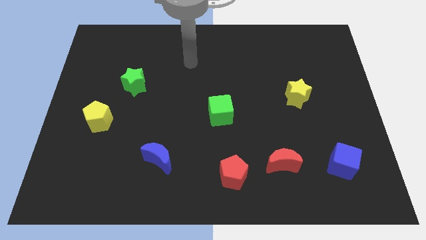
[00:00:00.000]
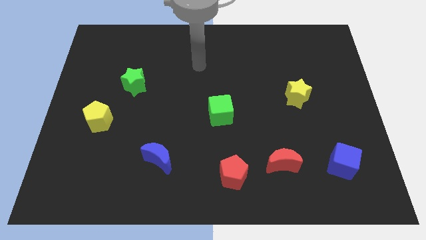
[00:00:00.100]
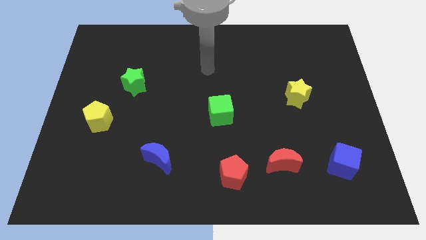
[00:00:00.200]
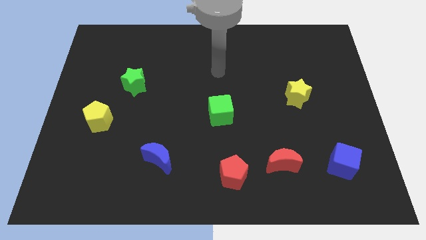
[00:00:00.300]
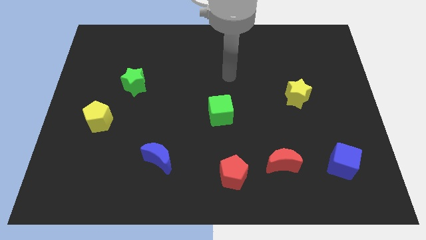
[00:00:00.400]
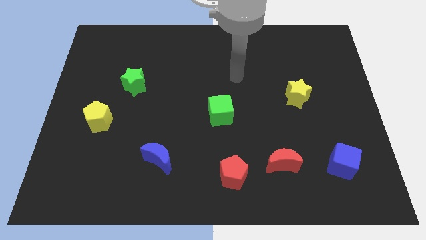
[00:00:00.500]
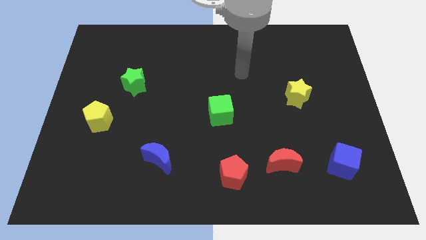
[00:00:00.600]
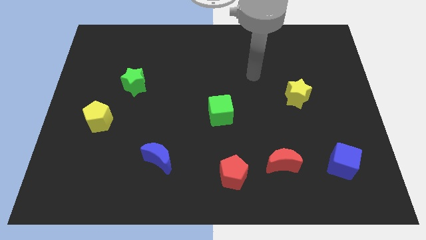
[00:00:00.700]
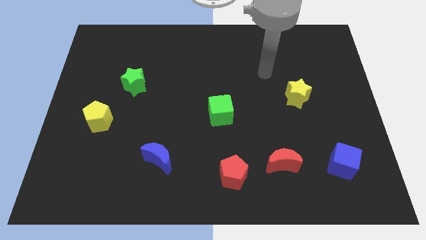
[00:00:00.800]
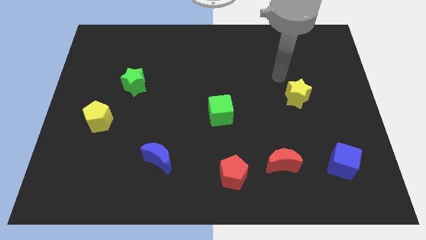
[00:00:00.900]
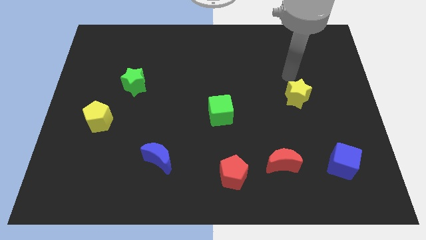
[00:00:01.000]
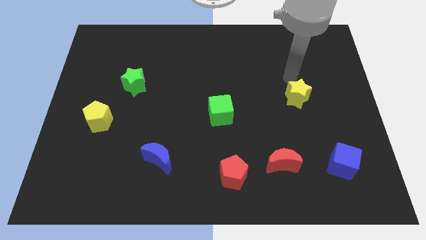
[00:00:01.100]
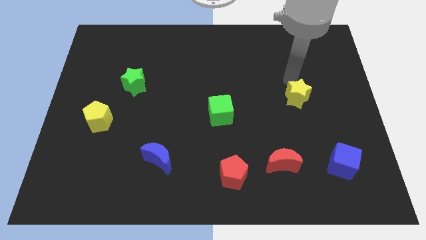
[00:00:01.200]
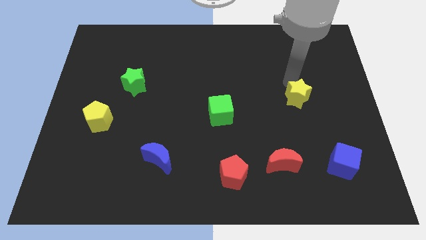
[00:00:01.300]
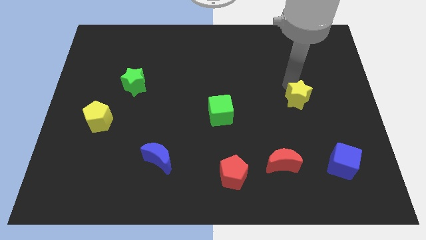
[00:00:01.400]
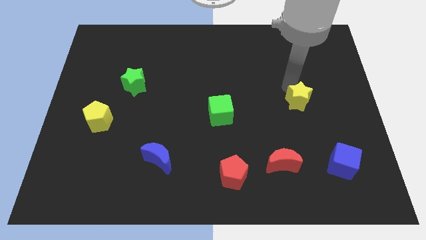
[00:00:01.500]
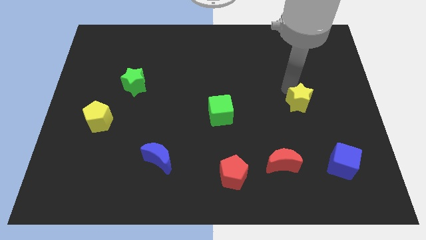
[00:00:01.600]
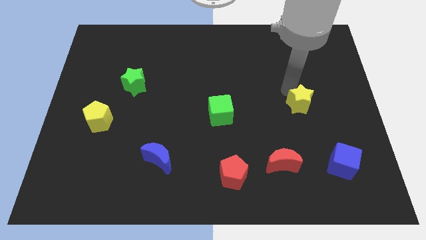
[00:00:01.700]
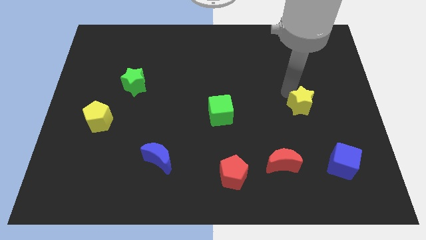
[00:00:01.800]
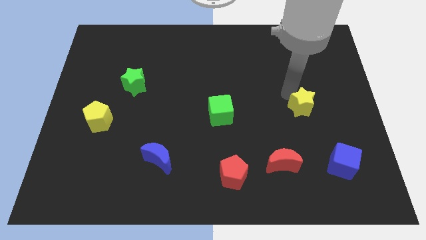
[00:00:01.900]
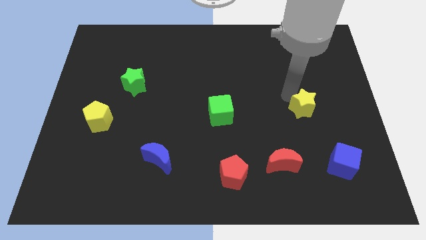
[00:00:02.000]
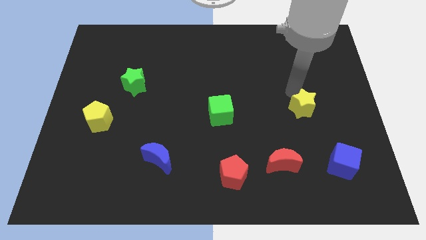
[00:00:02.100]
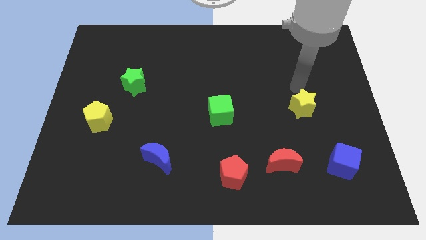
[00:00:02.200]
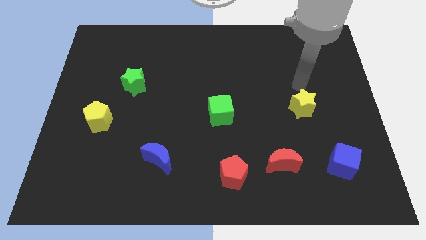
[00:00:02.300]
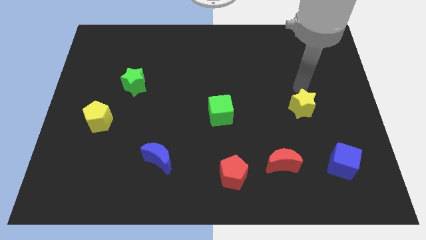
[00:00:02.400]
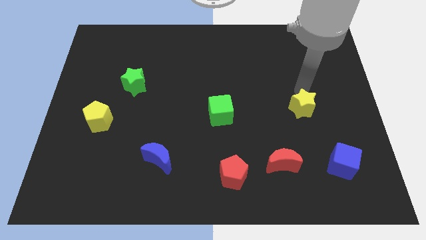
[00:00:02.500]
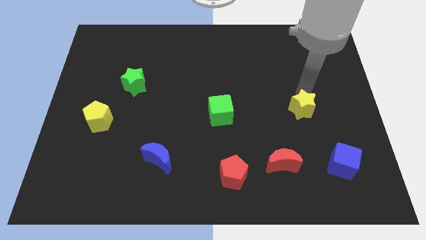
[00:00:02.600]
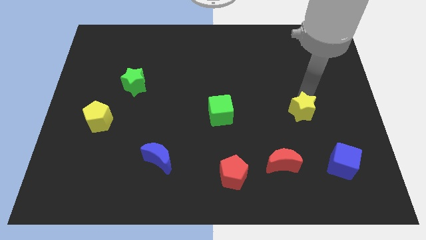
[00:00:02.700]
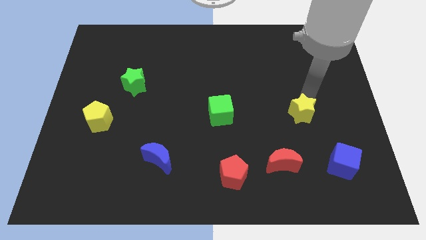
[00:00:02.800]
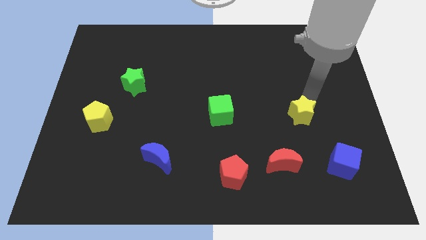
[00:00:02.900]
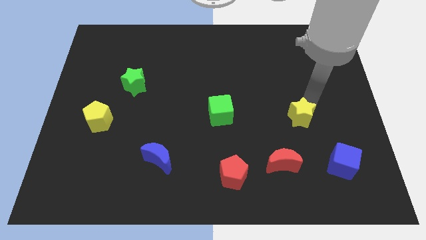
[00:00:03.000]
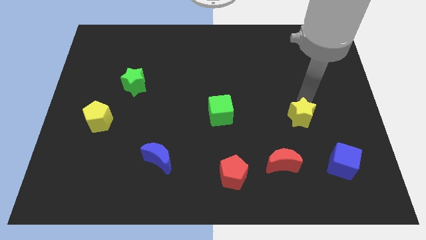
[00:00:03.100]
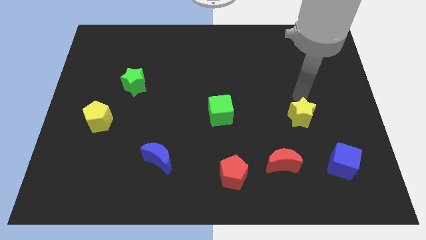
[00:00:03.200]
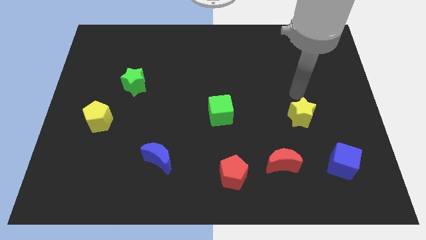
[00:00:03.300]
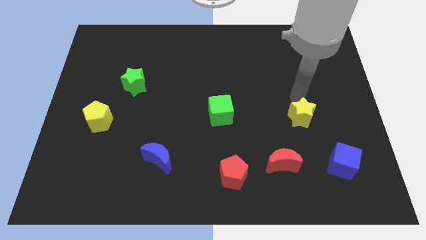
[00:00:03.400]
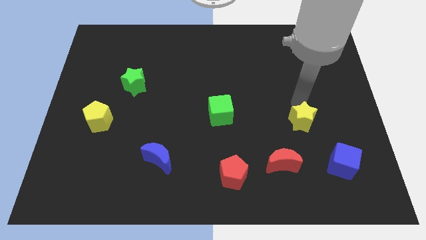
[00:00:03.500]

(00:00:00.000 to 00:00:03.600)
push the yellow star a little bit down

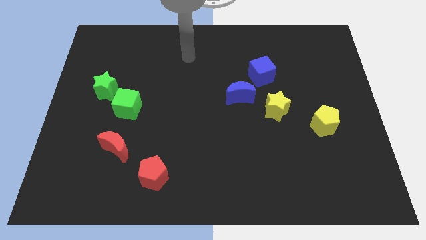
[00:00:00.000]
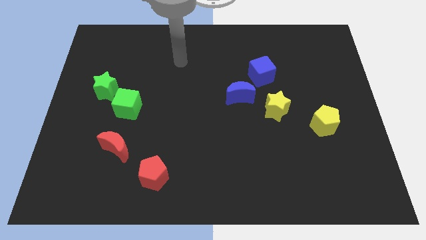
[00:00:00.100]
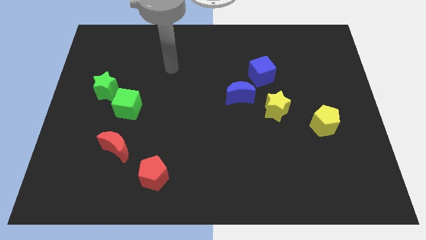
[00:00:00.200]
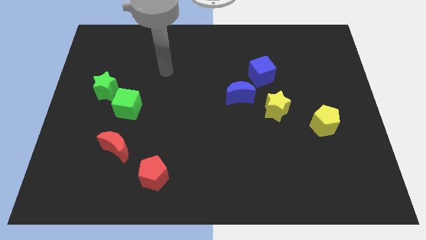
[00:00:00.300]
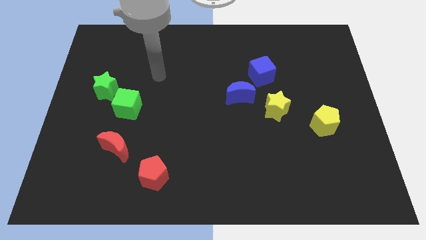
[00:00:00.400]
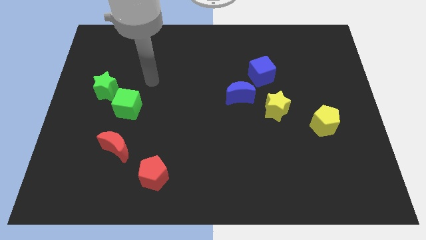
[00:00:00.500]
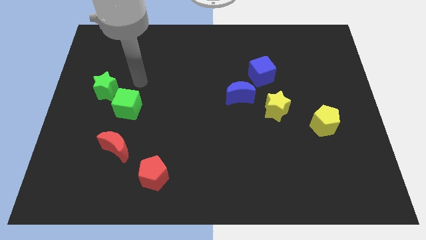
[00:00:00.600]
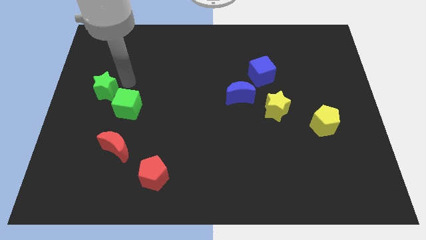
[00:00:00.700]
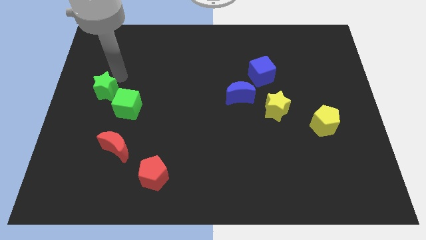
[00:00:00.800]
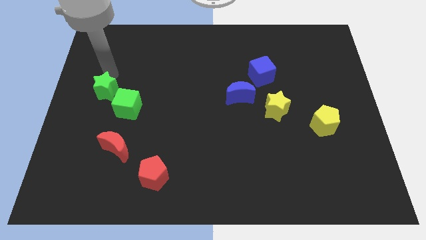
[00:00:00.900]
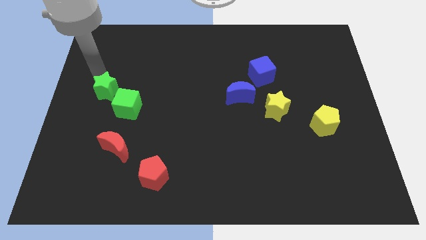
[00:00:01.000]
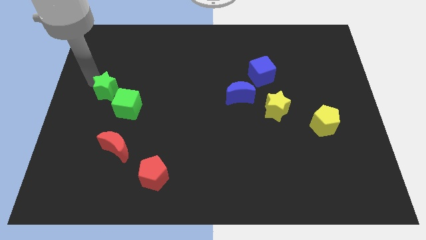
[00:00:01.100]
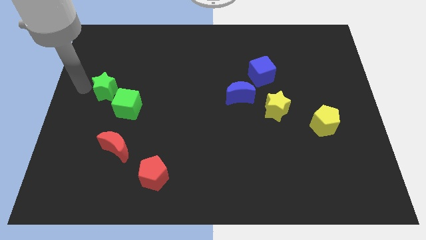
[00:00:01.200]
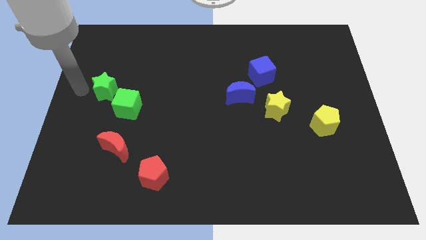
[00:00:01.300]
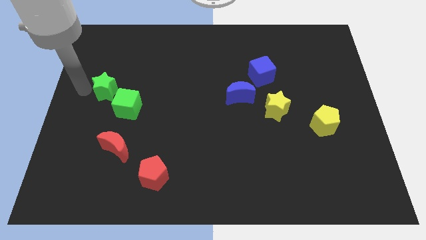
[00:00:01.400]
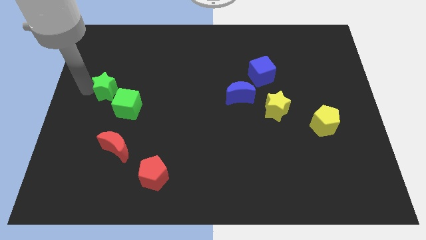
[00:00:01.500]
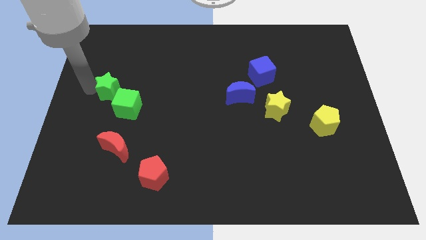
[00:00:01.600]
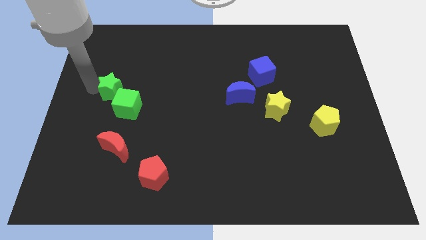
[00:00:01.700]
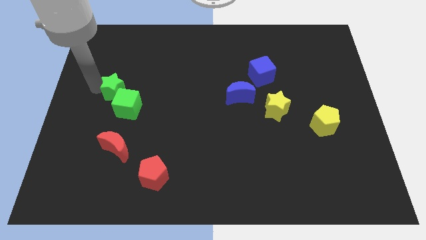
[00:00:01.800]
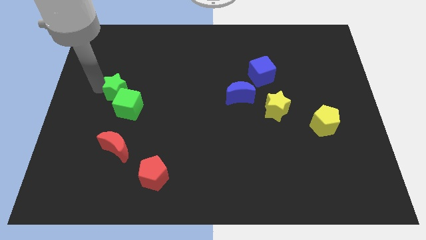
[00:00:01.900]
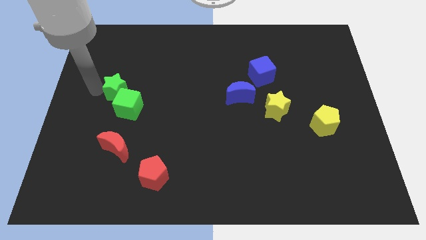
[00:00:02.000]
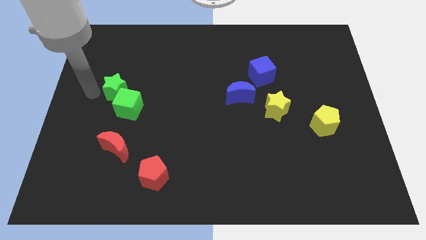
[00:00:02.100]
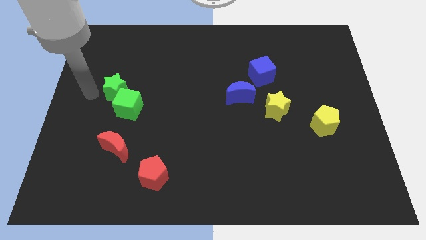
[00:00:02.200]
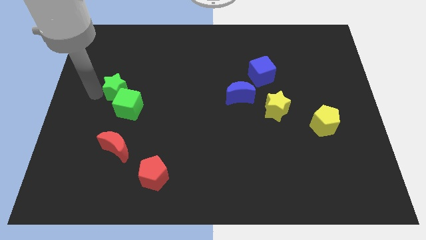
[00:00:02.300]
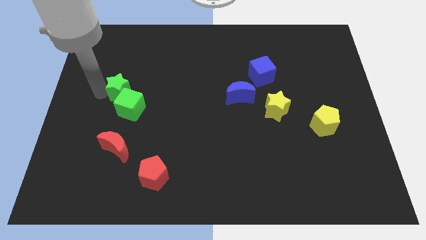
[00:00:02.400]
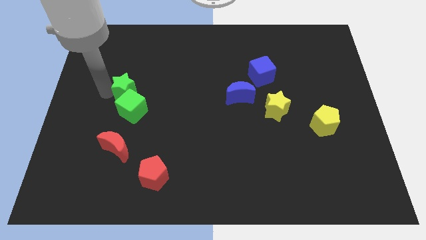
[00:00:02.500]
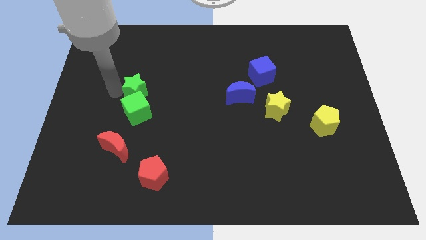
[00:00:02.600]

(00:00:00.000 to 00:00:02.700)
move the green star slightly right

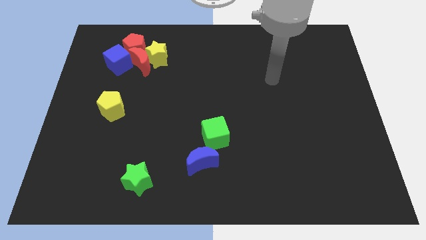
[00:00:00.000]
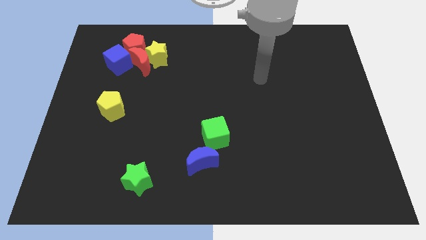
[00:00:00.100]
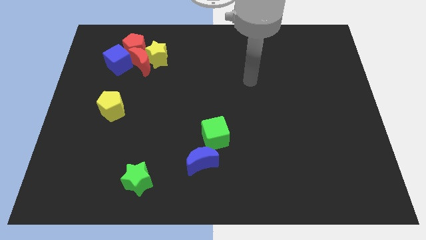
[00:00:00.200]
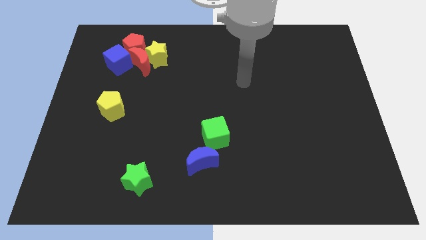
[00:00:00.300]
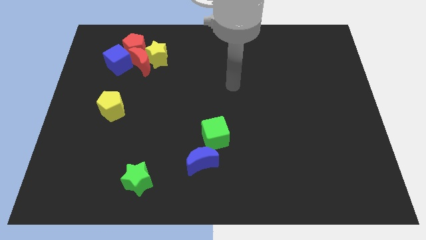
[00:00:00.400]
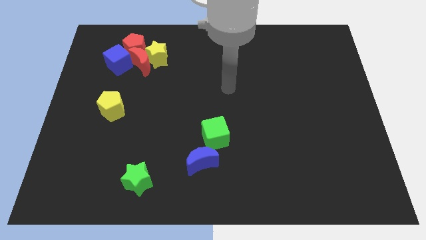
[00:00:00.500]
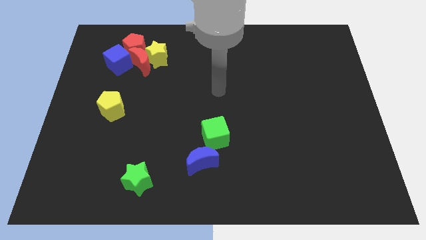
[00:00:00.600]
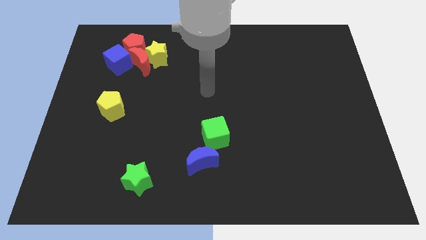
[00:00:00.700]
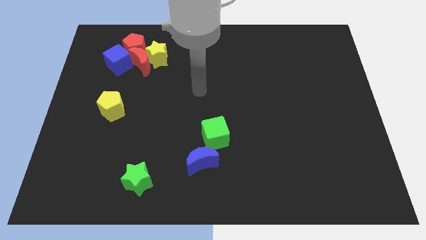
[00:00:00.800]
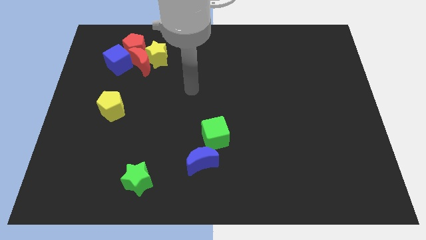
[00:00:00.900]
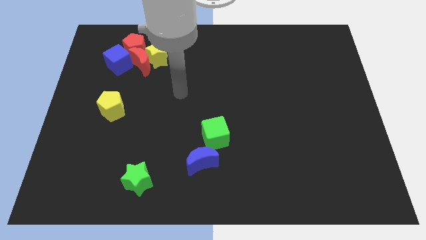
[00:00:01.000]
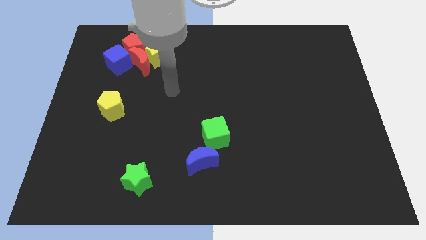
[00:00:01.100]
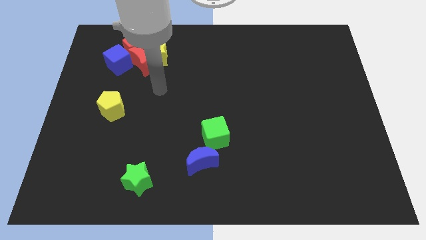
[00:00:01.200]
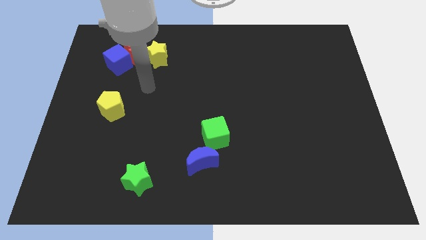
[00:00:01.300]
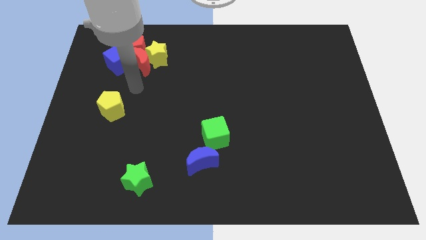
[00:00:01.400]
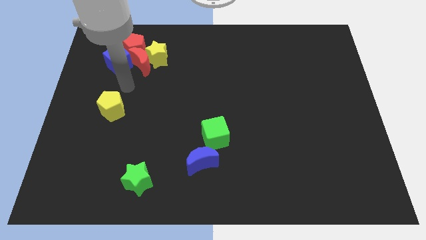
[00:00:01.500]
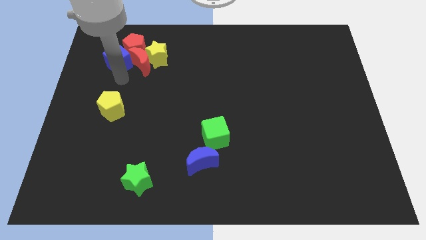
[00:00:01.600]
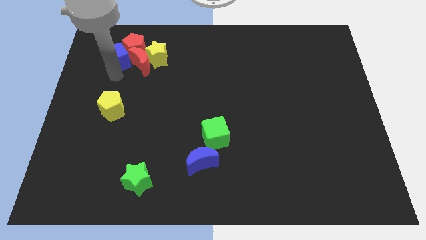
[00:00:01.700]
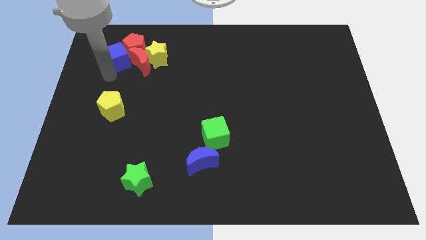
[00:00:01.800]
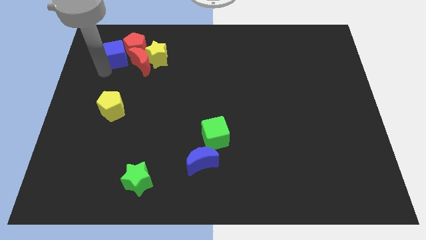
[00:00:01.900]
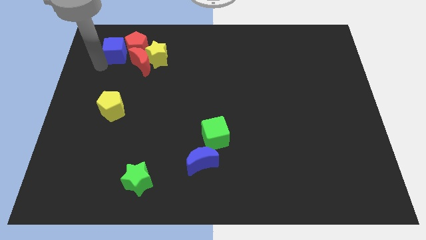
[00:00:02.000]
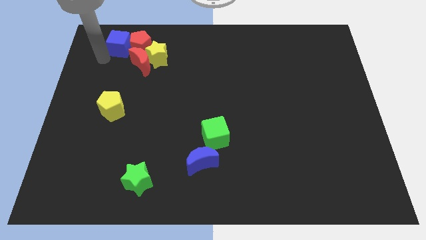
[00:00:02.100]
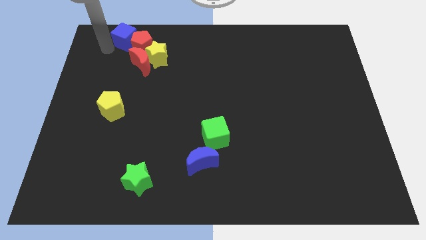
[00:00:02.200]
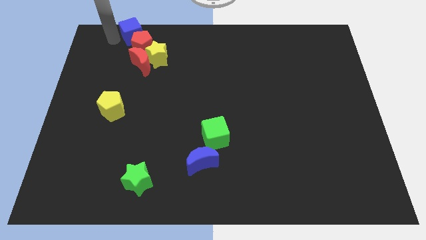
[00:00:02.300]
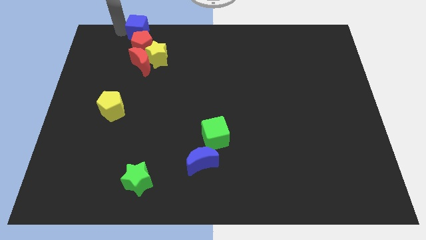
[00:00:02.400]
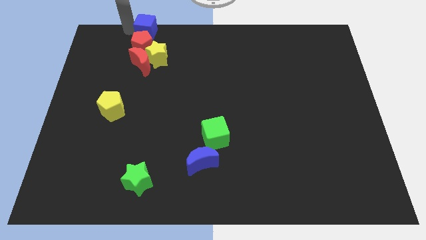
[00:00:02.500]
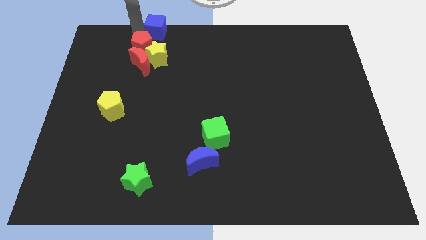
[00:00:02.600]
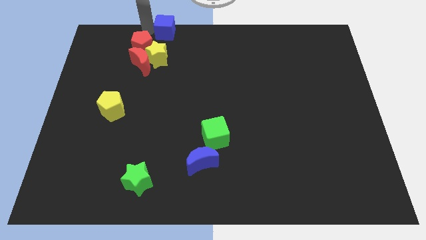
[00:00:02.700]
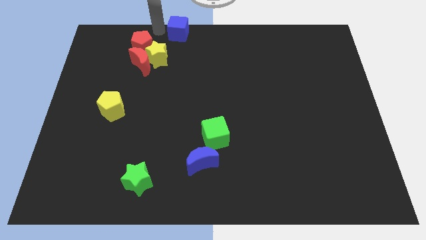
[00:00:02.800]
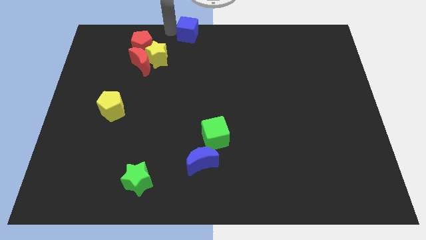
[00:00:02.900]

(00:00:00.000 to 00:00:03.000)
move the blue cube to the right a little bit
